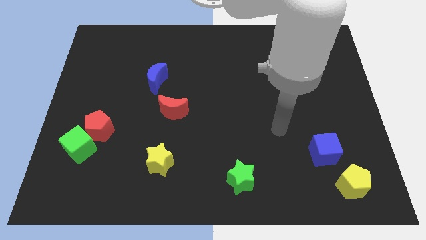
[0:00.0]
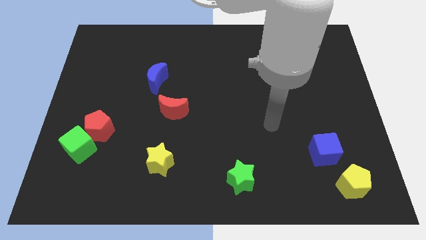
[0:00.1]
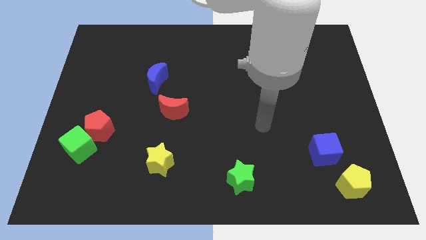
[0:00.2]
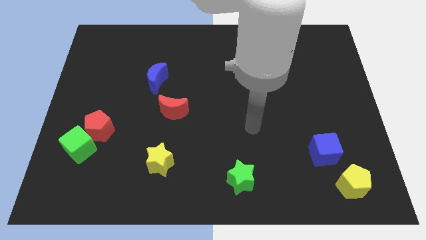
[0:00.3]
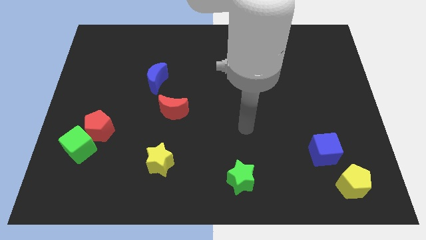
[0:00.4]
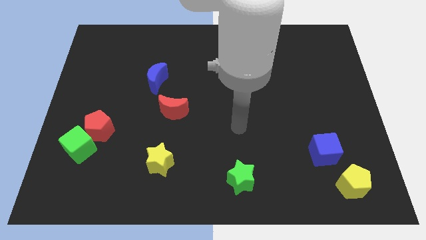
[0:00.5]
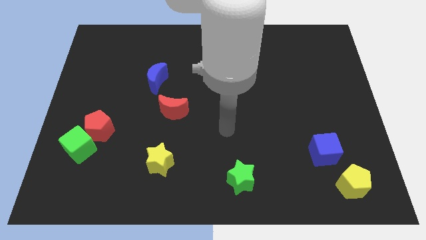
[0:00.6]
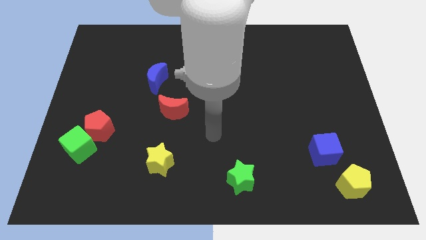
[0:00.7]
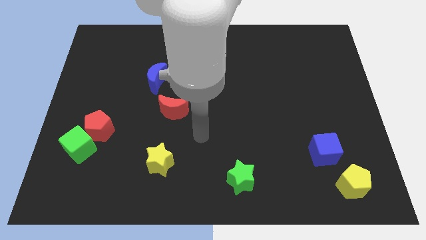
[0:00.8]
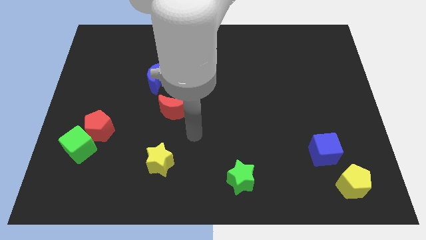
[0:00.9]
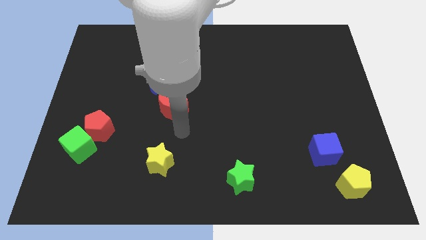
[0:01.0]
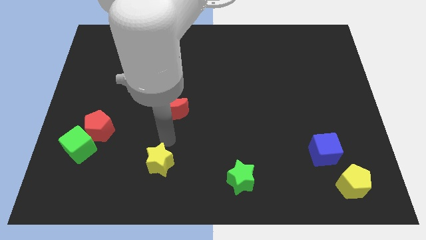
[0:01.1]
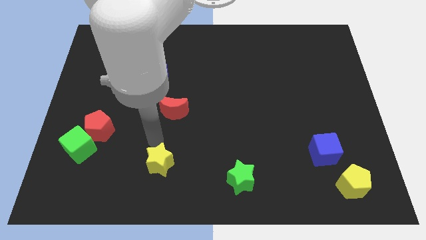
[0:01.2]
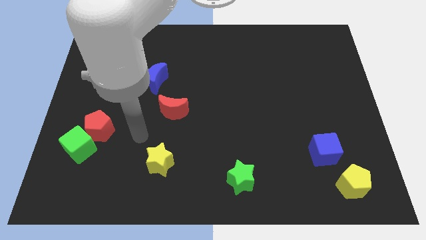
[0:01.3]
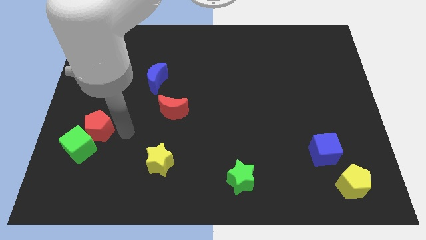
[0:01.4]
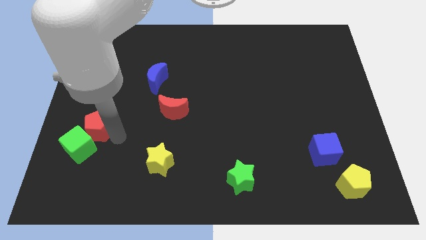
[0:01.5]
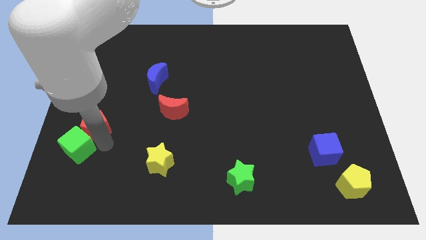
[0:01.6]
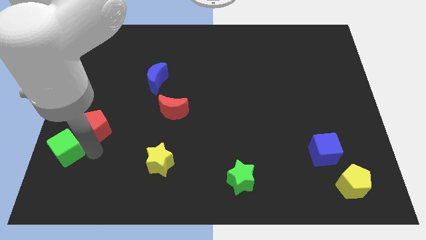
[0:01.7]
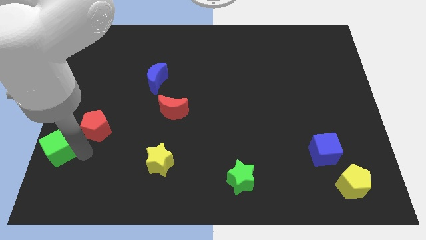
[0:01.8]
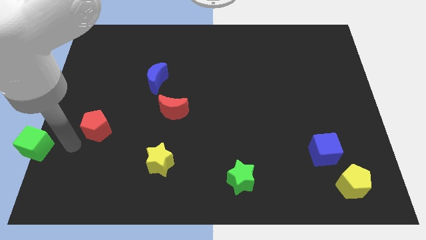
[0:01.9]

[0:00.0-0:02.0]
pull the red pentagon apart from the green cube

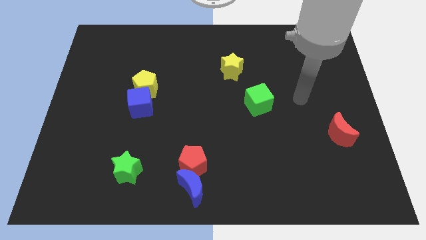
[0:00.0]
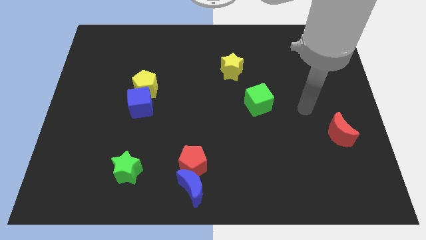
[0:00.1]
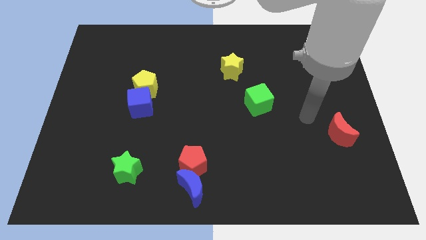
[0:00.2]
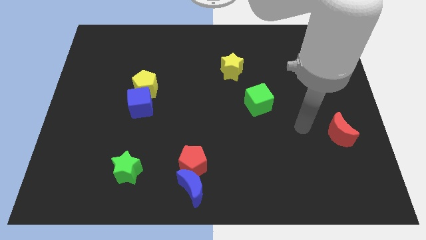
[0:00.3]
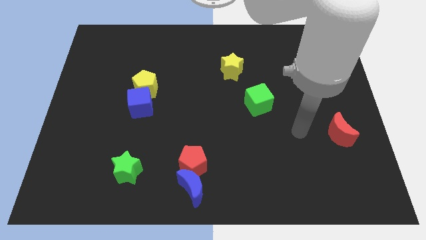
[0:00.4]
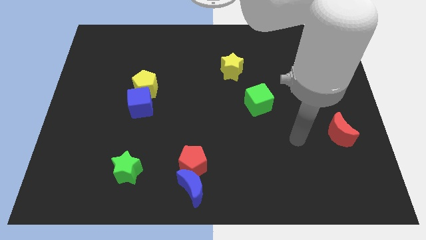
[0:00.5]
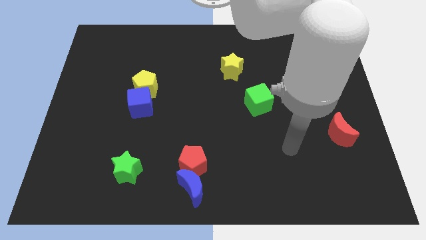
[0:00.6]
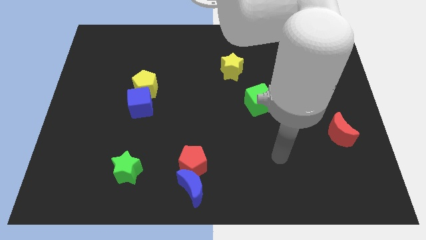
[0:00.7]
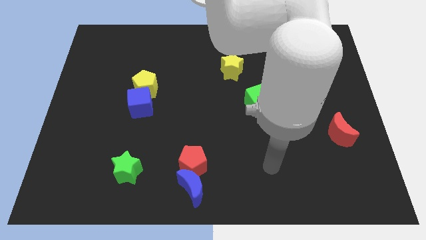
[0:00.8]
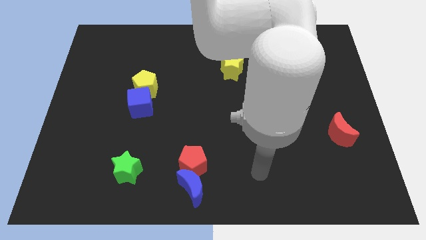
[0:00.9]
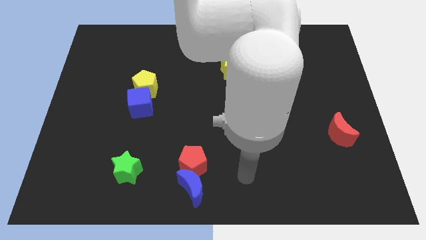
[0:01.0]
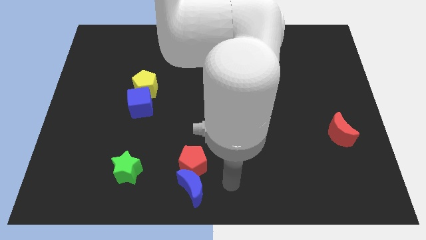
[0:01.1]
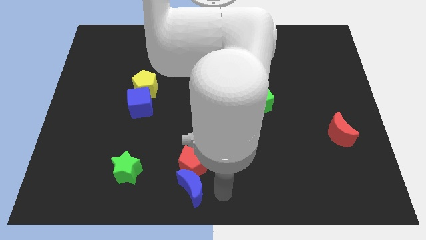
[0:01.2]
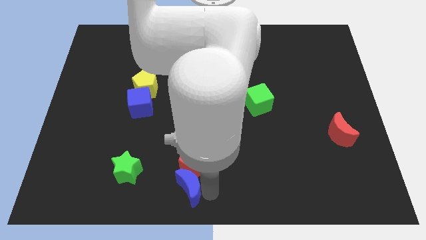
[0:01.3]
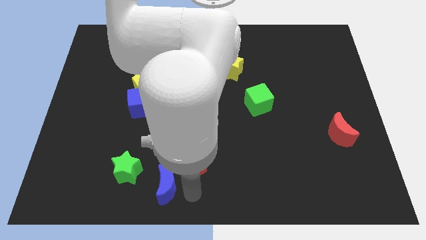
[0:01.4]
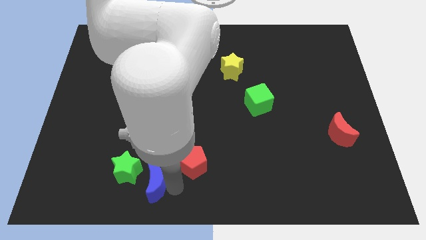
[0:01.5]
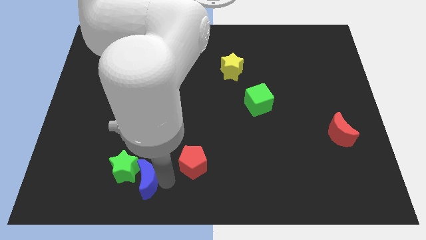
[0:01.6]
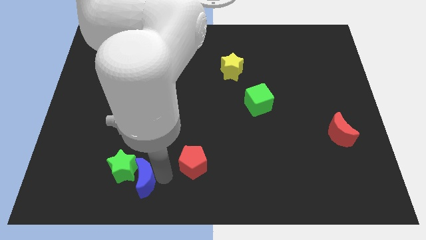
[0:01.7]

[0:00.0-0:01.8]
move the red pentagon away from the blue moon

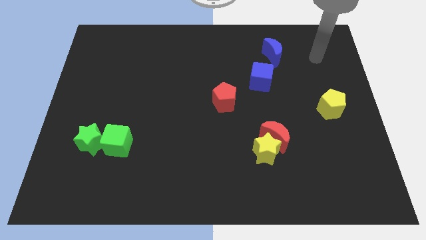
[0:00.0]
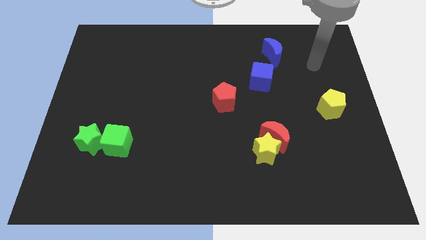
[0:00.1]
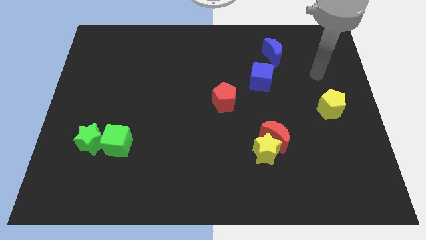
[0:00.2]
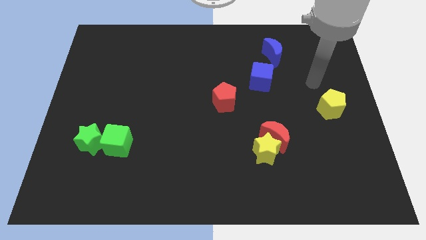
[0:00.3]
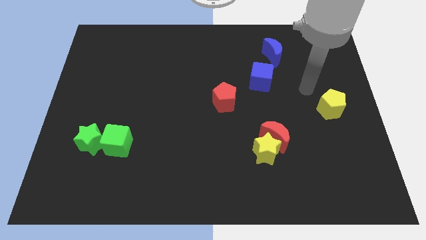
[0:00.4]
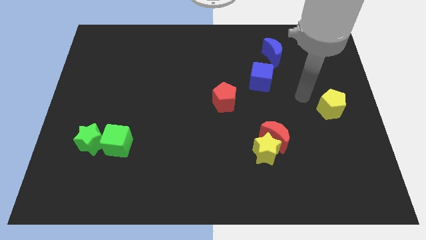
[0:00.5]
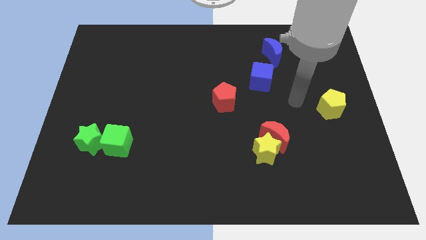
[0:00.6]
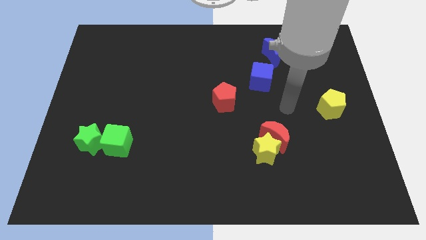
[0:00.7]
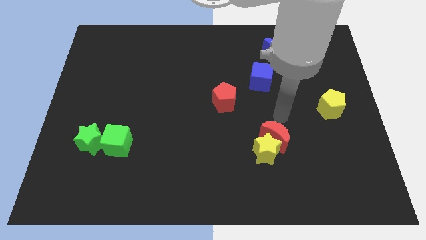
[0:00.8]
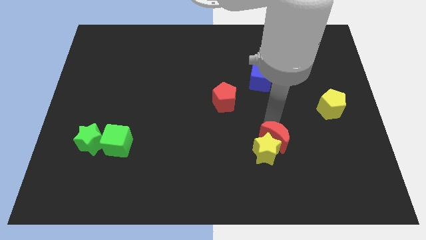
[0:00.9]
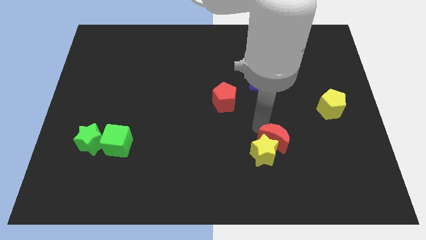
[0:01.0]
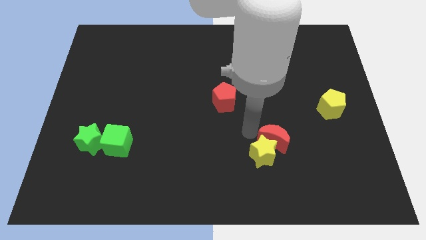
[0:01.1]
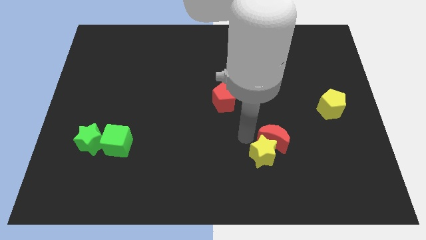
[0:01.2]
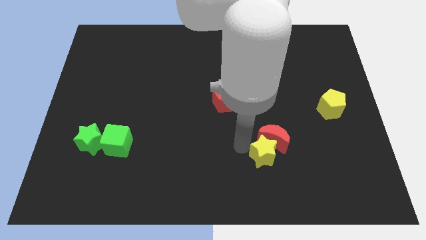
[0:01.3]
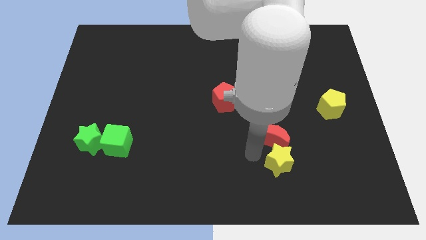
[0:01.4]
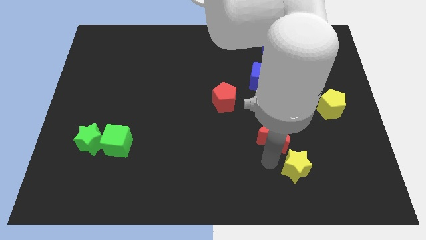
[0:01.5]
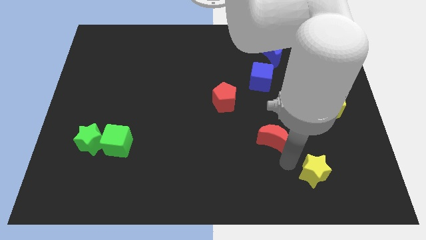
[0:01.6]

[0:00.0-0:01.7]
move the red moon away from the yellow star

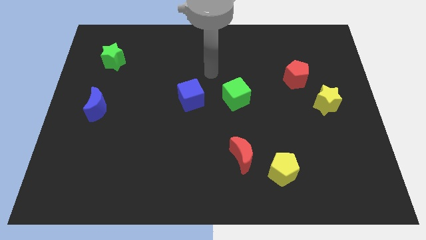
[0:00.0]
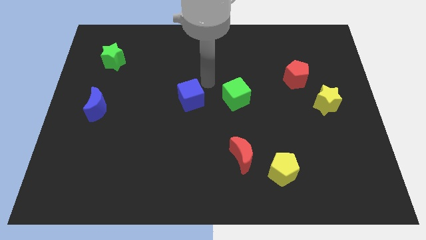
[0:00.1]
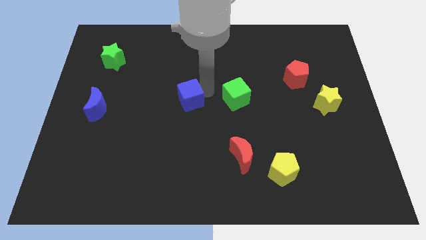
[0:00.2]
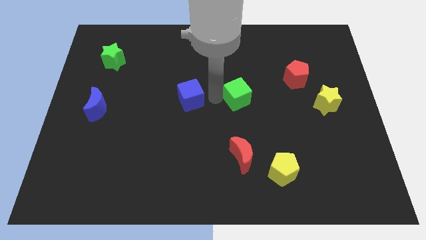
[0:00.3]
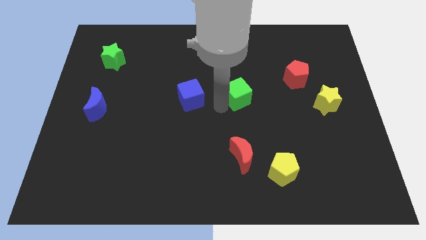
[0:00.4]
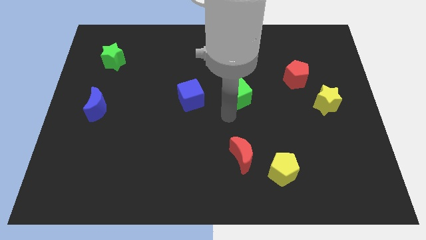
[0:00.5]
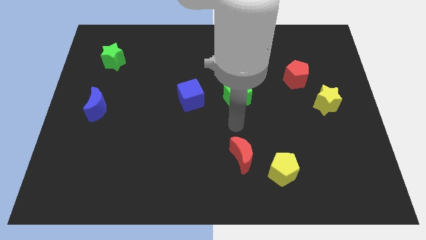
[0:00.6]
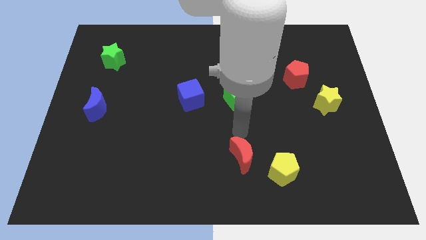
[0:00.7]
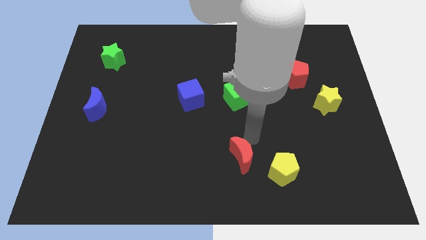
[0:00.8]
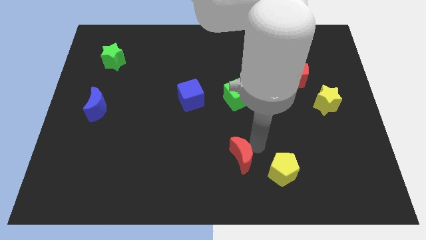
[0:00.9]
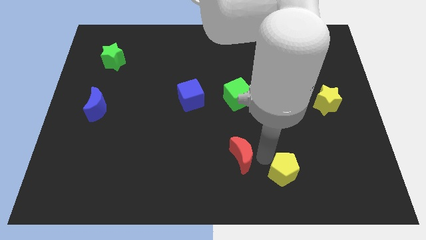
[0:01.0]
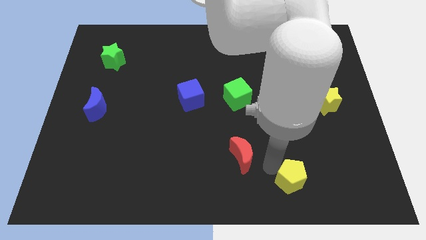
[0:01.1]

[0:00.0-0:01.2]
move the red moon away from the yellow pentagon

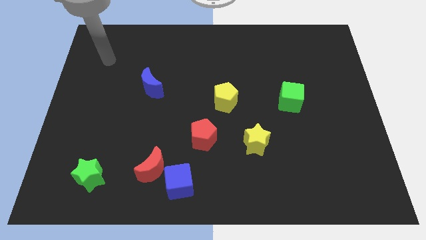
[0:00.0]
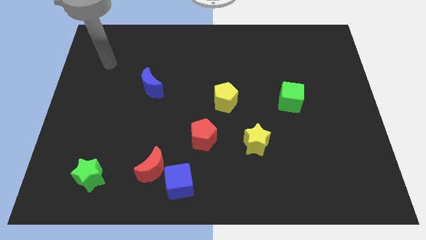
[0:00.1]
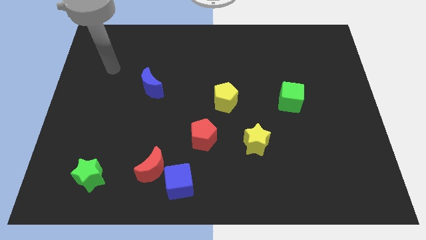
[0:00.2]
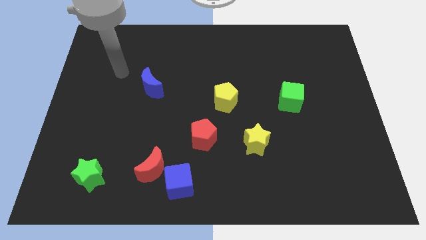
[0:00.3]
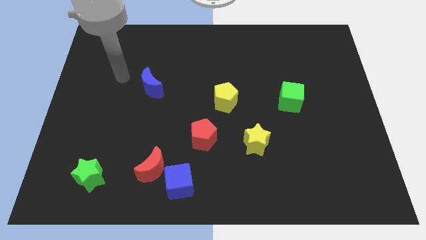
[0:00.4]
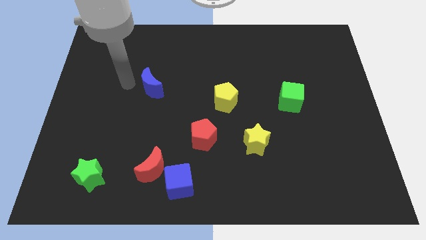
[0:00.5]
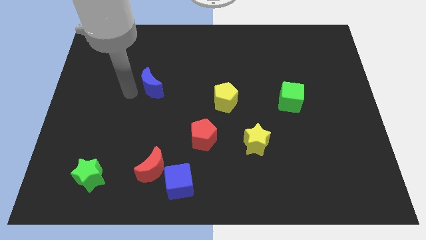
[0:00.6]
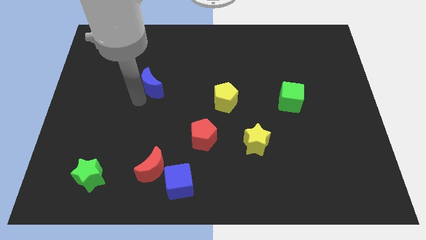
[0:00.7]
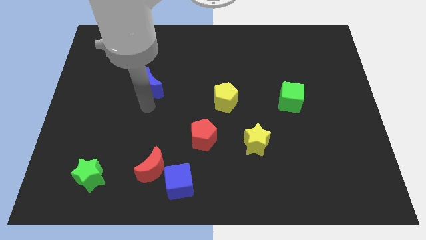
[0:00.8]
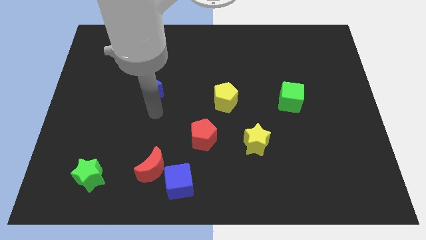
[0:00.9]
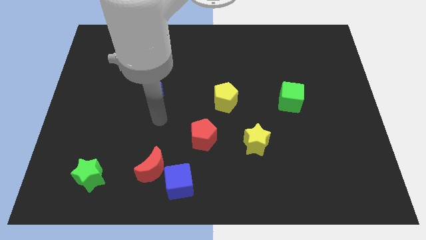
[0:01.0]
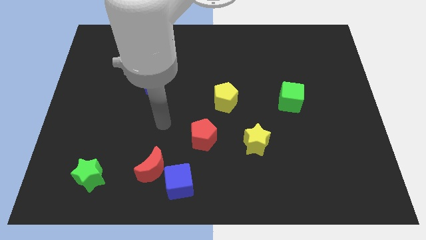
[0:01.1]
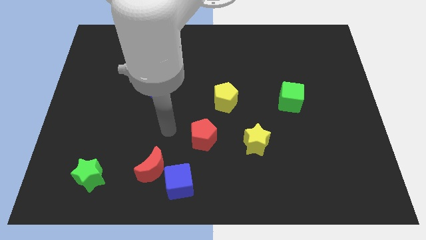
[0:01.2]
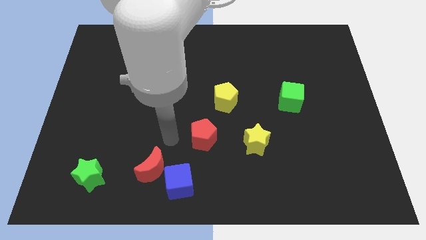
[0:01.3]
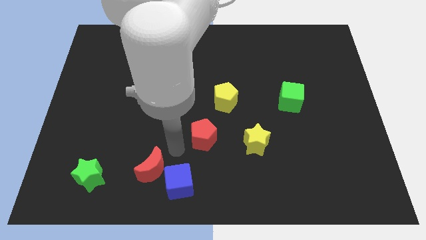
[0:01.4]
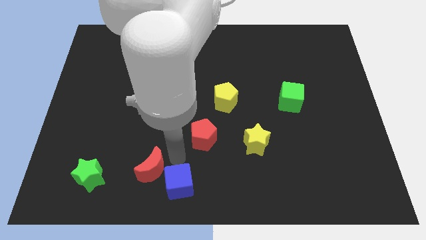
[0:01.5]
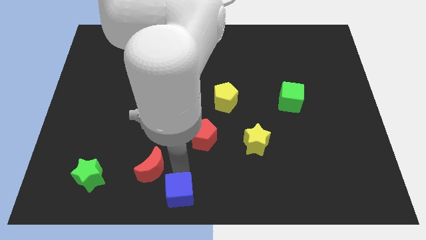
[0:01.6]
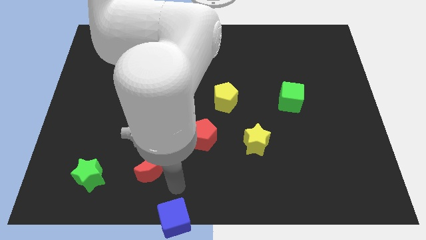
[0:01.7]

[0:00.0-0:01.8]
separate the red moon from the blue cube

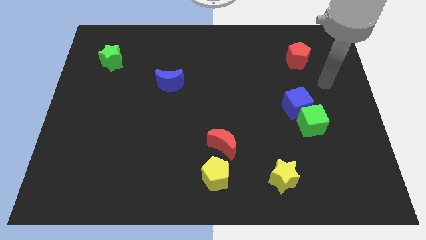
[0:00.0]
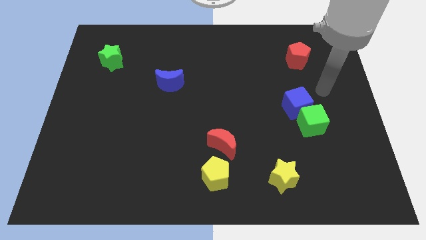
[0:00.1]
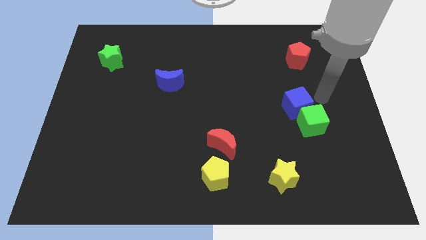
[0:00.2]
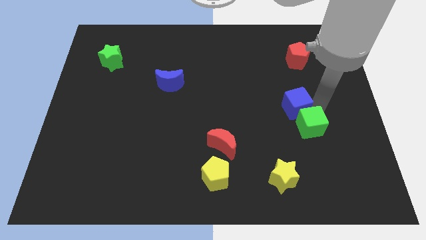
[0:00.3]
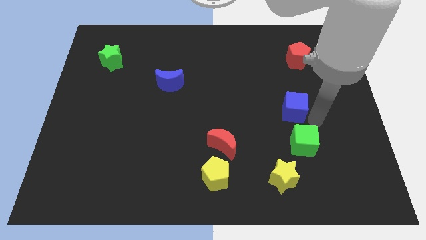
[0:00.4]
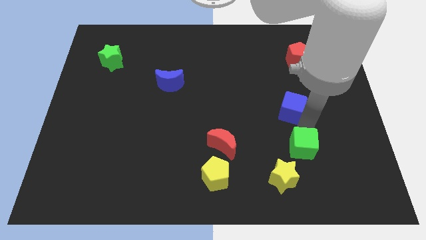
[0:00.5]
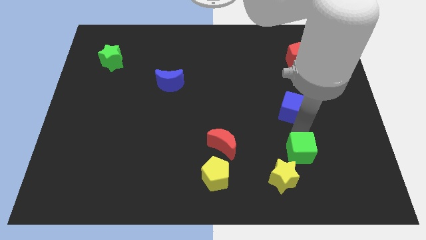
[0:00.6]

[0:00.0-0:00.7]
separate the blue cube from the green cube
